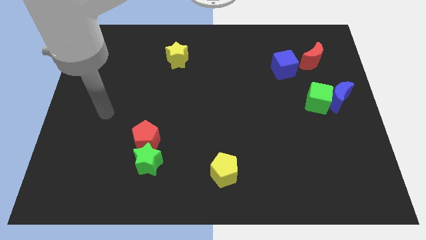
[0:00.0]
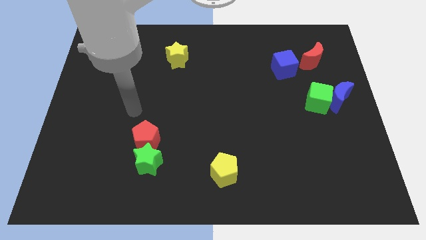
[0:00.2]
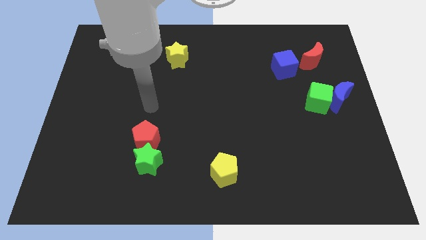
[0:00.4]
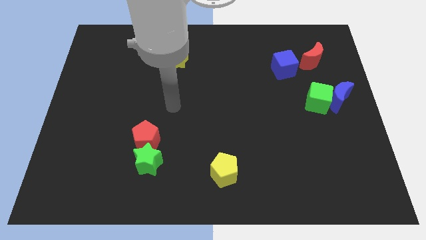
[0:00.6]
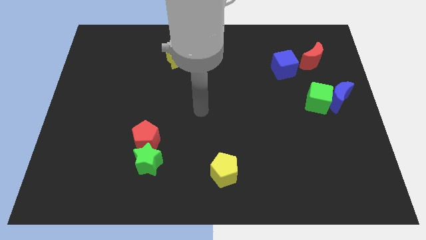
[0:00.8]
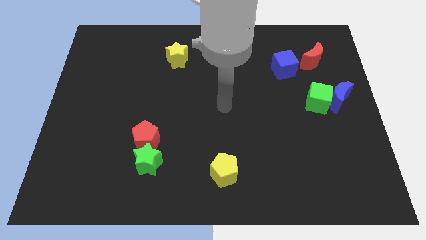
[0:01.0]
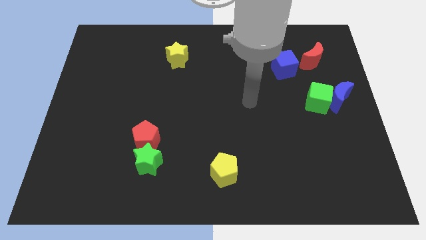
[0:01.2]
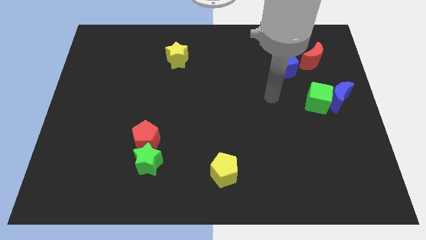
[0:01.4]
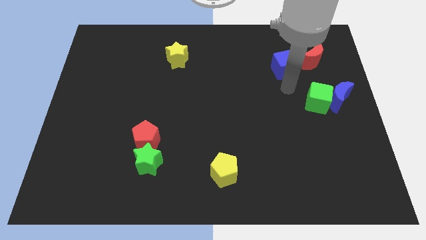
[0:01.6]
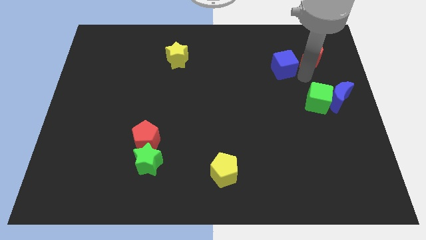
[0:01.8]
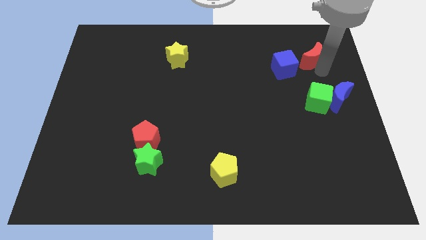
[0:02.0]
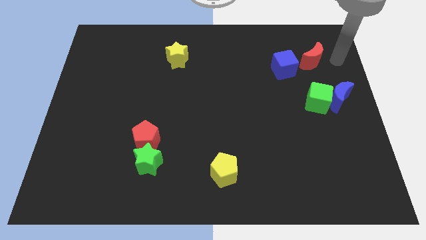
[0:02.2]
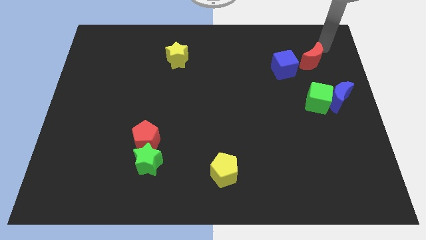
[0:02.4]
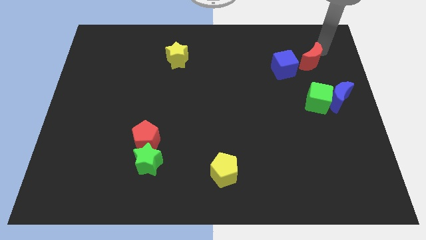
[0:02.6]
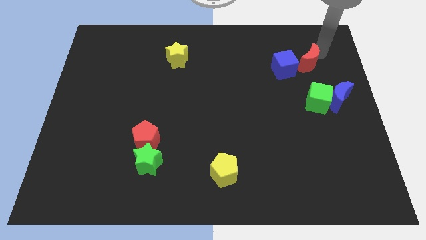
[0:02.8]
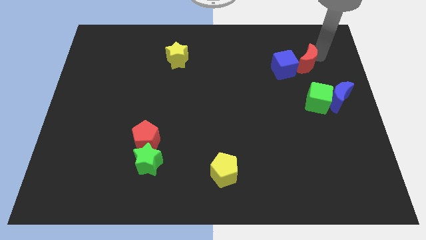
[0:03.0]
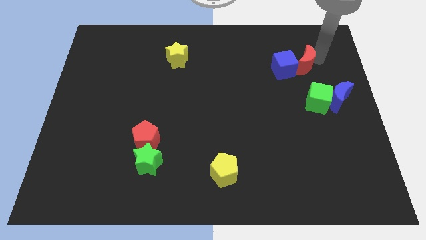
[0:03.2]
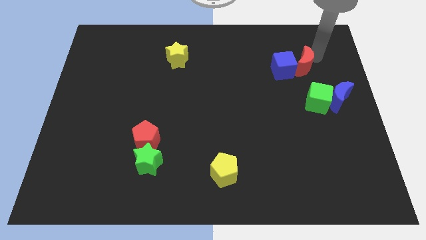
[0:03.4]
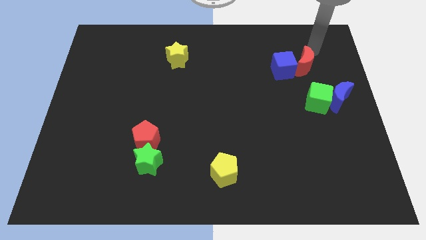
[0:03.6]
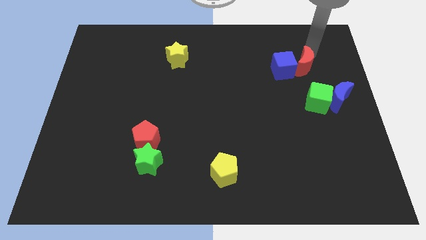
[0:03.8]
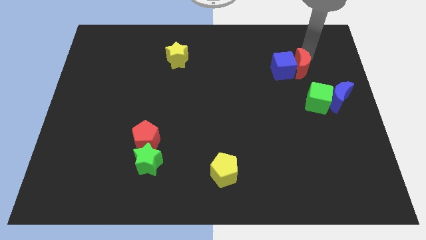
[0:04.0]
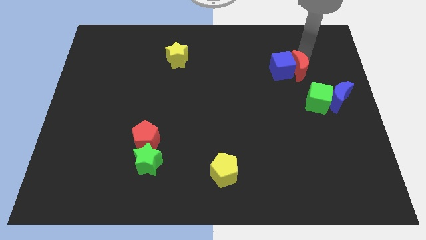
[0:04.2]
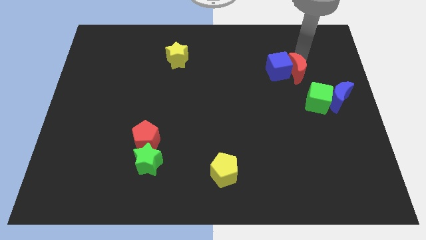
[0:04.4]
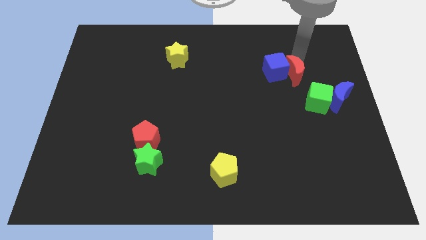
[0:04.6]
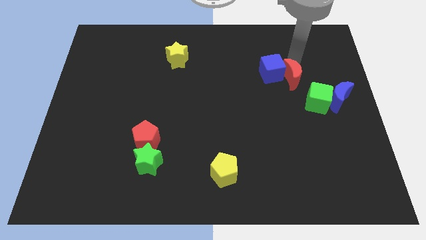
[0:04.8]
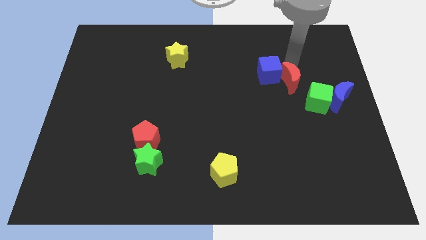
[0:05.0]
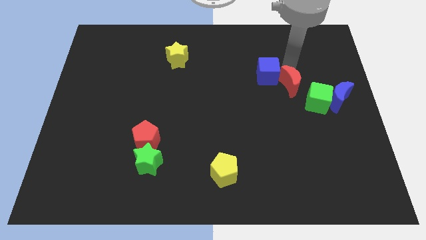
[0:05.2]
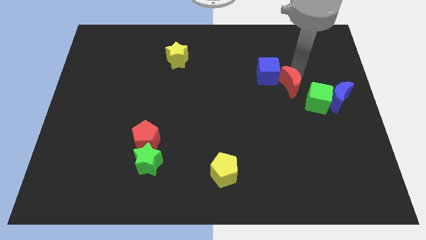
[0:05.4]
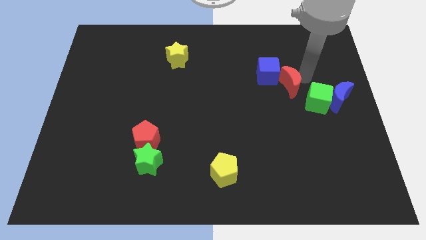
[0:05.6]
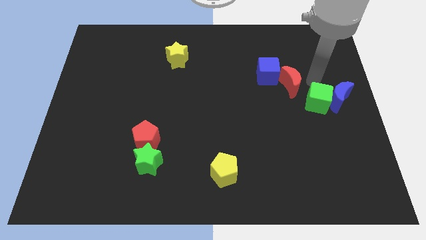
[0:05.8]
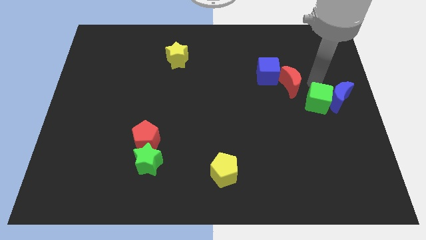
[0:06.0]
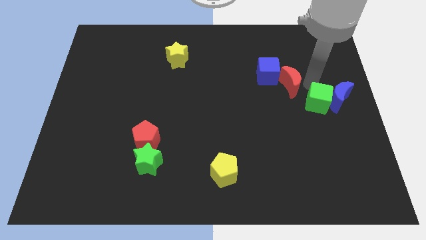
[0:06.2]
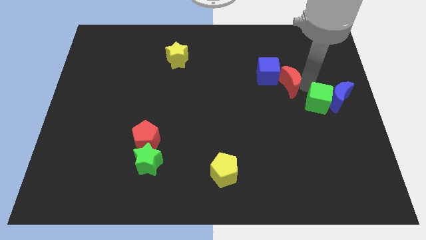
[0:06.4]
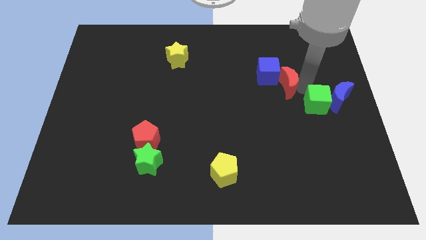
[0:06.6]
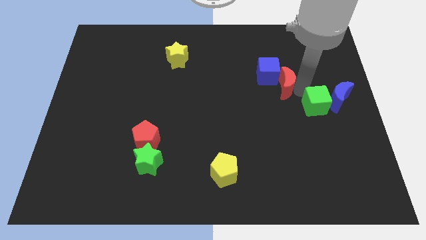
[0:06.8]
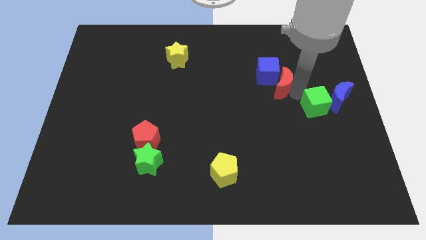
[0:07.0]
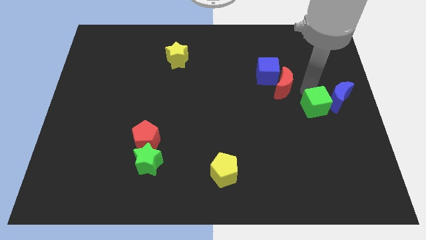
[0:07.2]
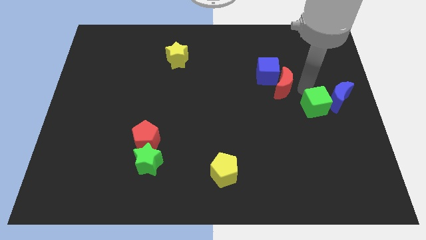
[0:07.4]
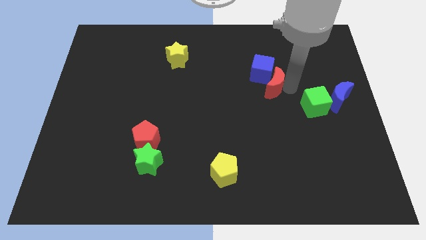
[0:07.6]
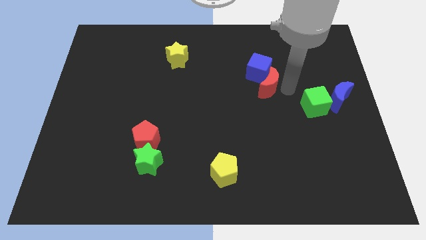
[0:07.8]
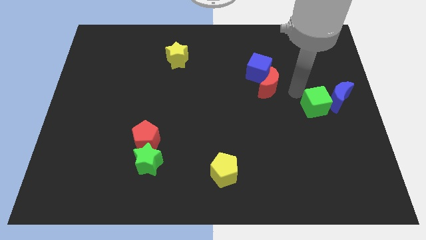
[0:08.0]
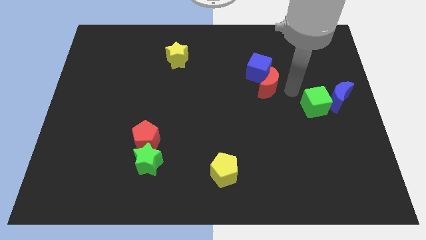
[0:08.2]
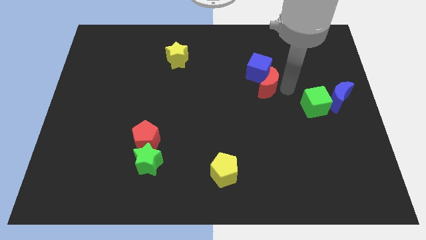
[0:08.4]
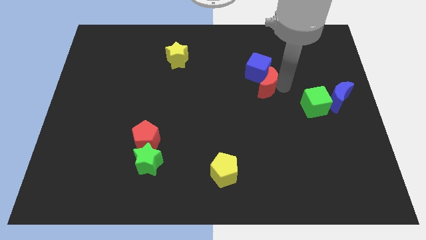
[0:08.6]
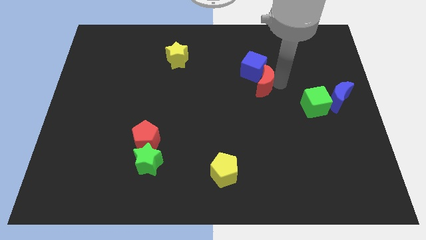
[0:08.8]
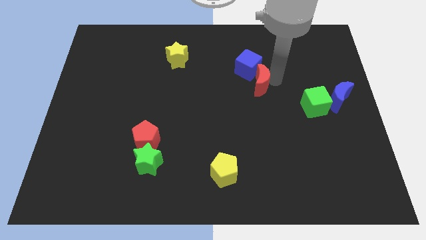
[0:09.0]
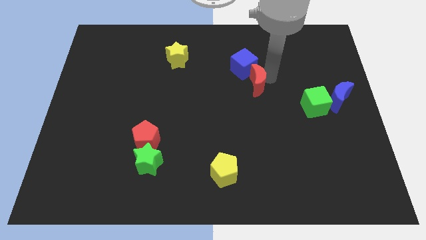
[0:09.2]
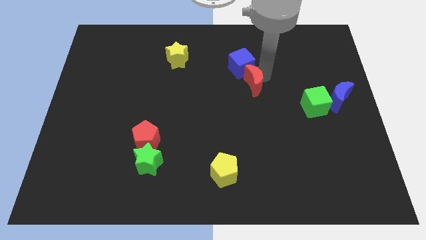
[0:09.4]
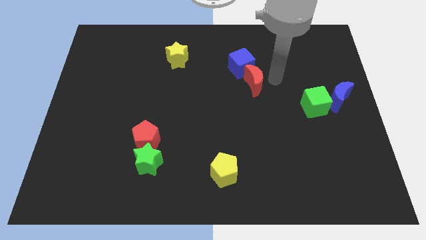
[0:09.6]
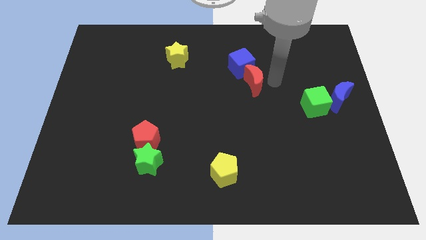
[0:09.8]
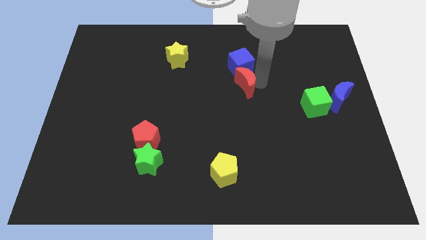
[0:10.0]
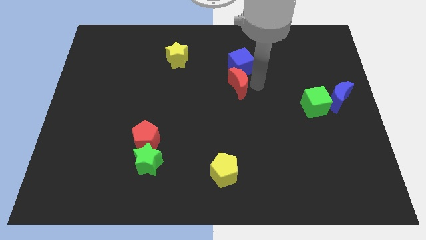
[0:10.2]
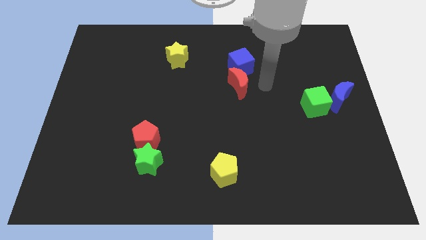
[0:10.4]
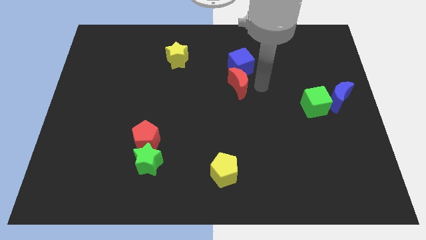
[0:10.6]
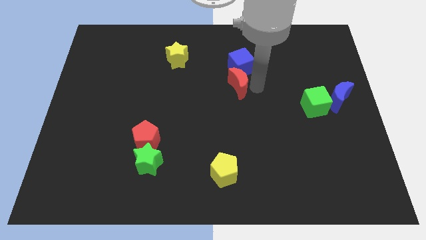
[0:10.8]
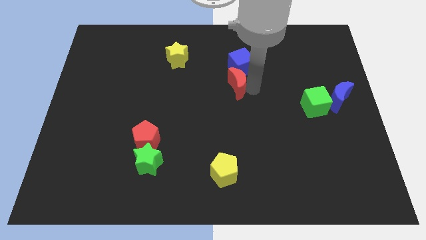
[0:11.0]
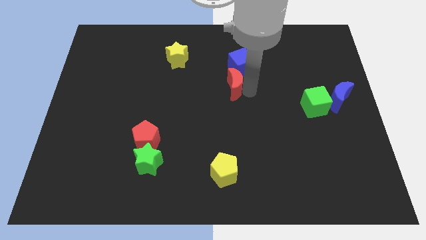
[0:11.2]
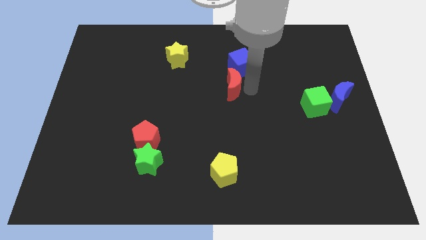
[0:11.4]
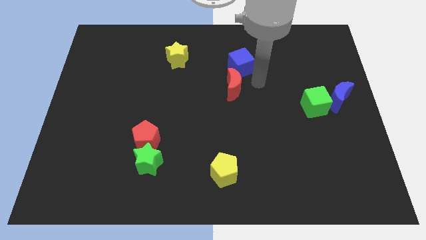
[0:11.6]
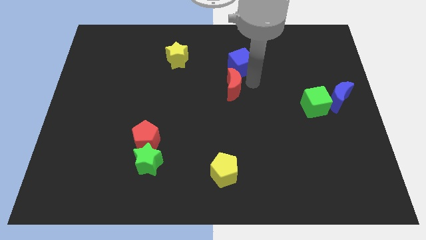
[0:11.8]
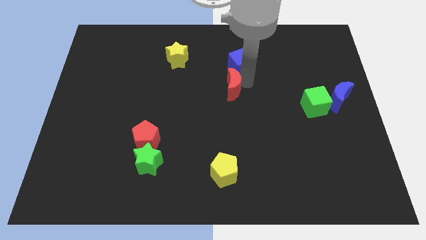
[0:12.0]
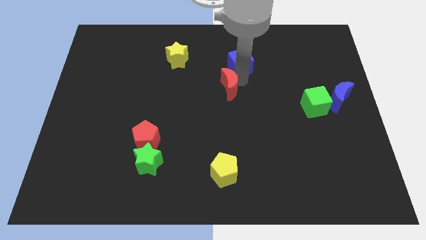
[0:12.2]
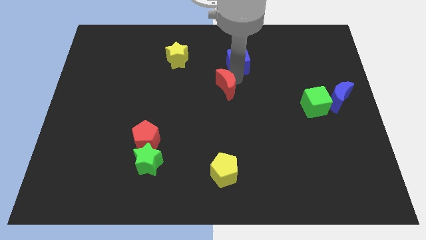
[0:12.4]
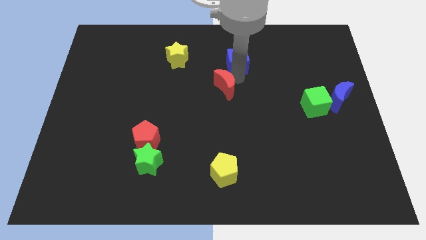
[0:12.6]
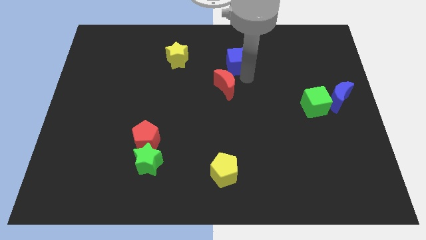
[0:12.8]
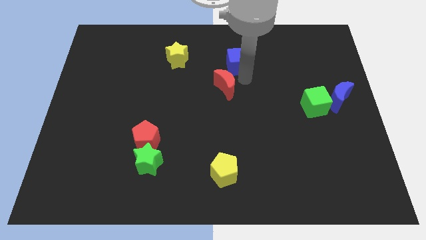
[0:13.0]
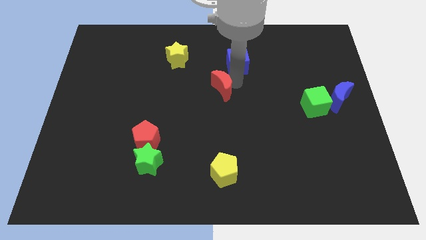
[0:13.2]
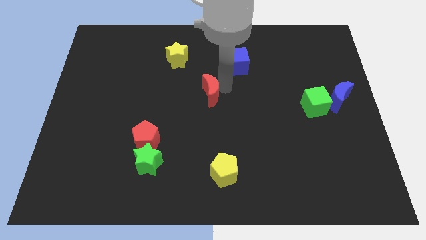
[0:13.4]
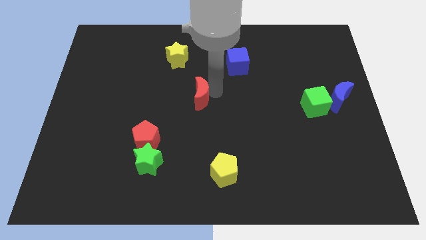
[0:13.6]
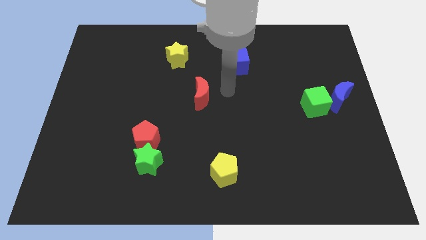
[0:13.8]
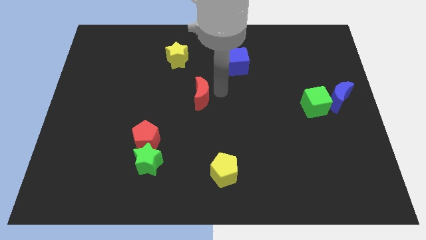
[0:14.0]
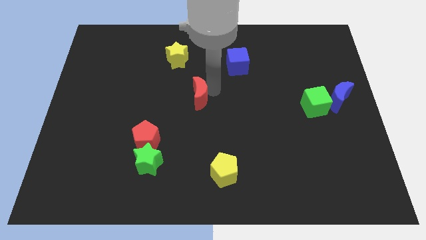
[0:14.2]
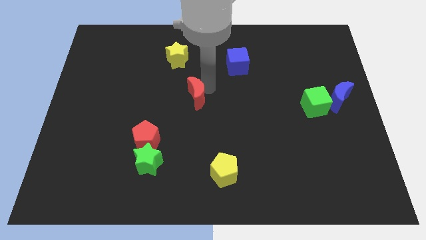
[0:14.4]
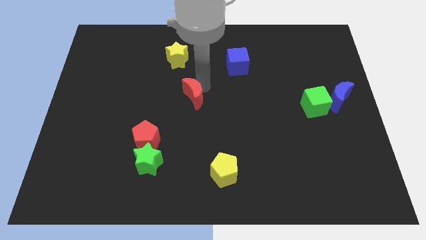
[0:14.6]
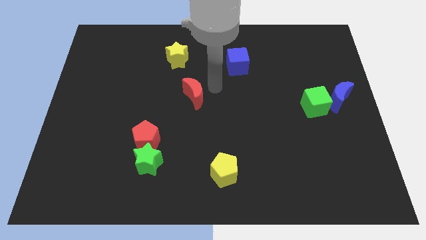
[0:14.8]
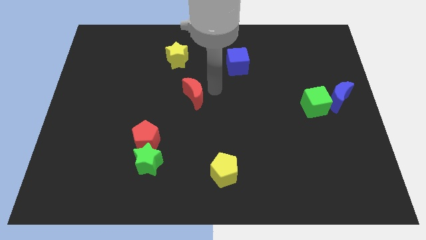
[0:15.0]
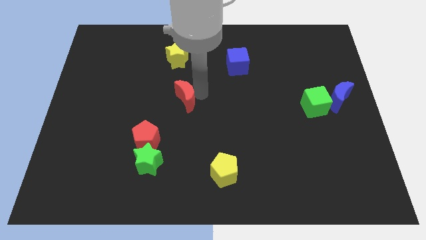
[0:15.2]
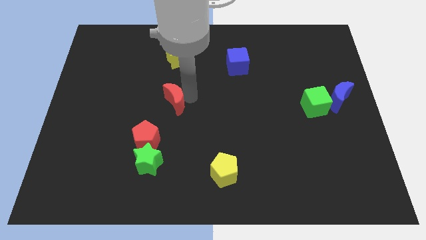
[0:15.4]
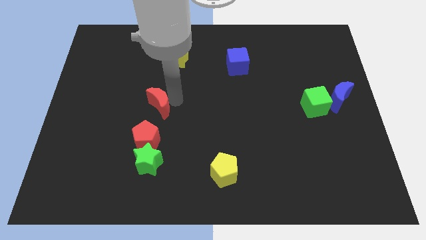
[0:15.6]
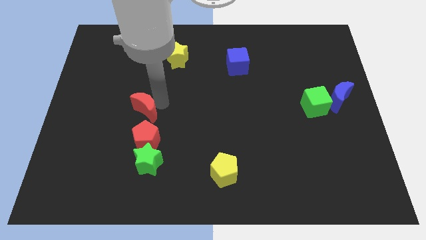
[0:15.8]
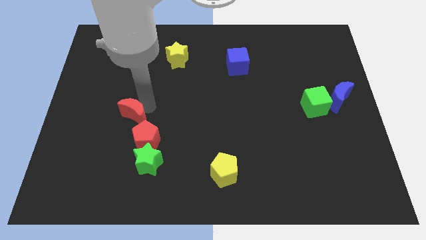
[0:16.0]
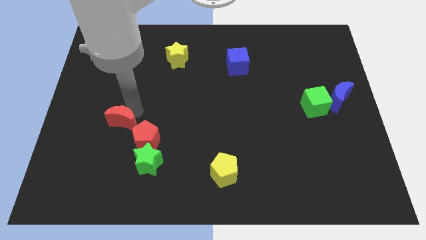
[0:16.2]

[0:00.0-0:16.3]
slide the red moon to the top left of the green star
